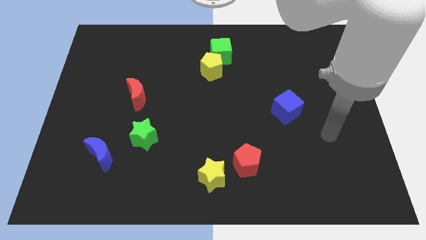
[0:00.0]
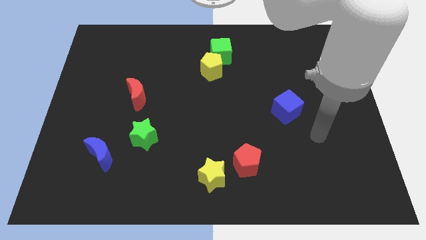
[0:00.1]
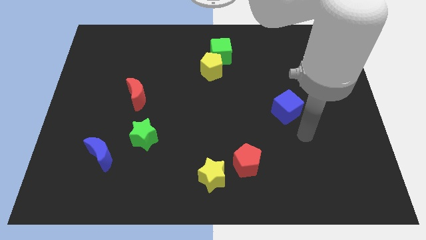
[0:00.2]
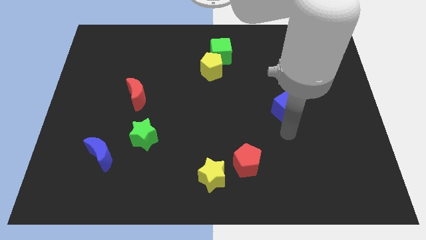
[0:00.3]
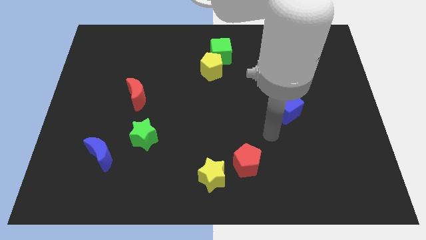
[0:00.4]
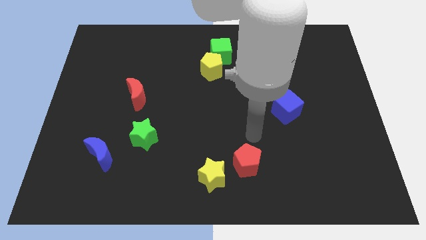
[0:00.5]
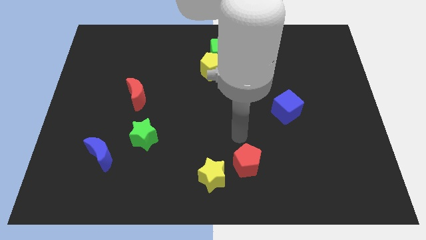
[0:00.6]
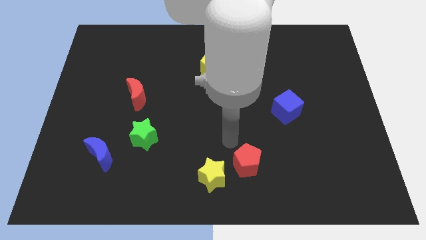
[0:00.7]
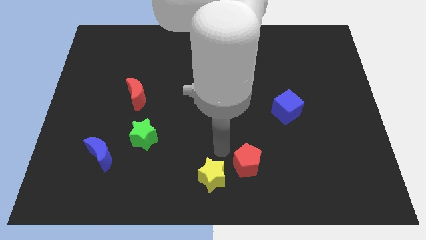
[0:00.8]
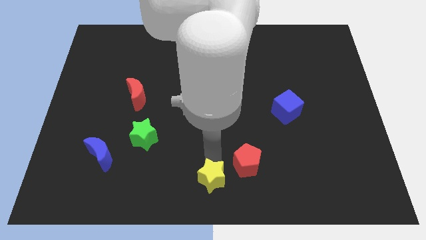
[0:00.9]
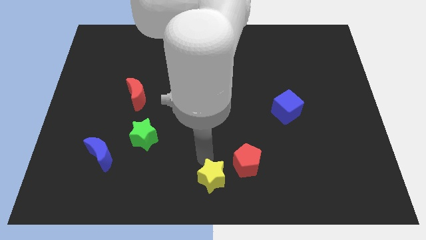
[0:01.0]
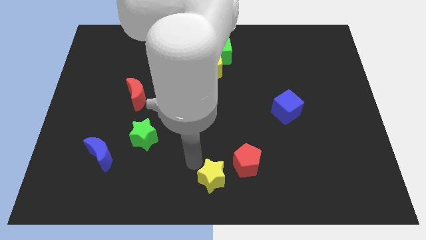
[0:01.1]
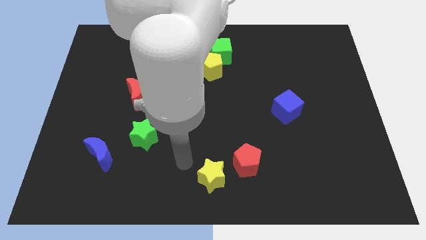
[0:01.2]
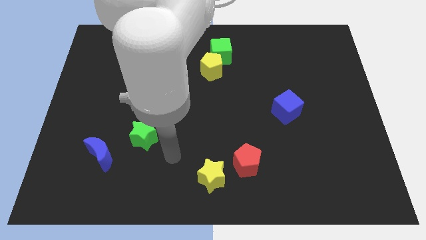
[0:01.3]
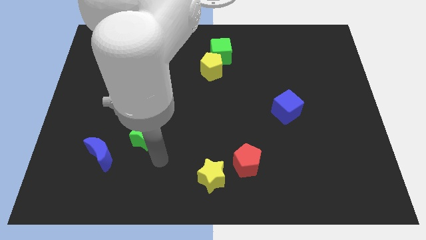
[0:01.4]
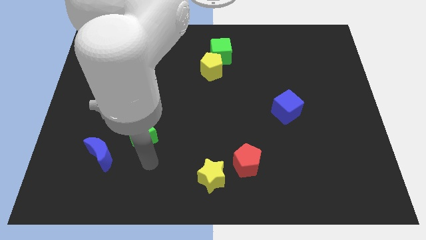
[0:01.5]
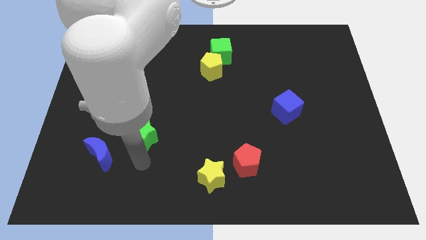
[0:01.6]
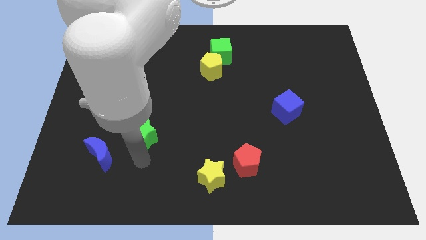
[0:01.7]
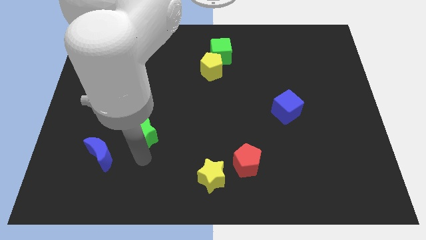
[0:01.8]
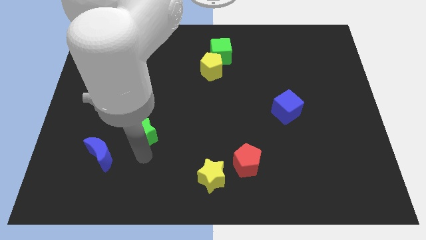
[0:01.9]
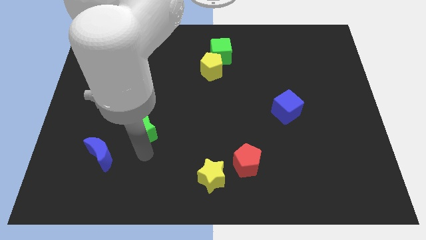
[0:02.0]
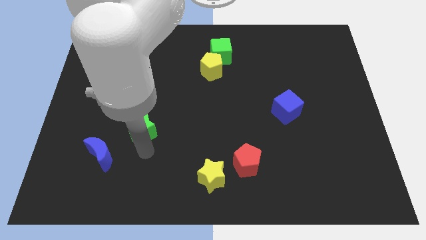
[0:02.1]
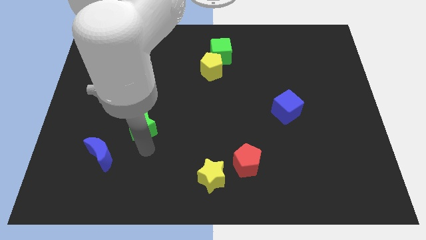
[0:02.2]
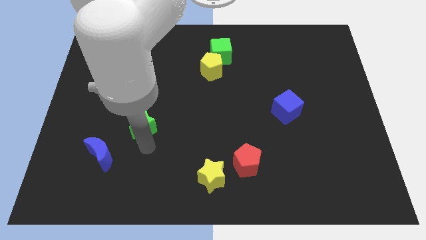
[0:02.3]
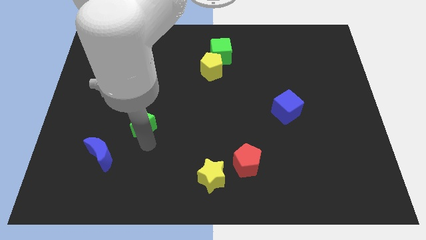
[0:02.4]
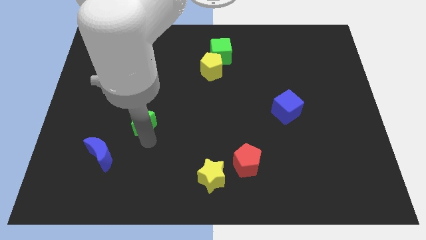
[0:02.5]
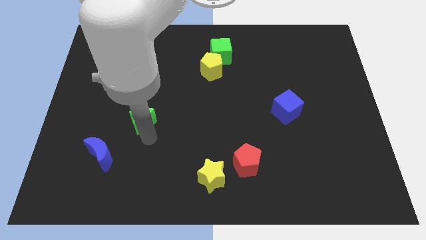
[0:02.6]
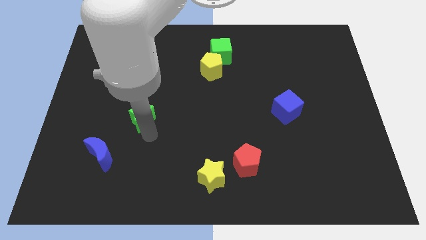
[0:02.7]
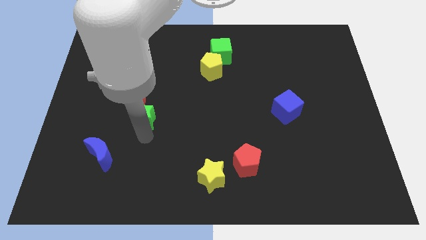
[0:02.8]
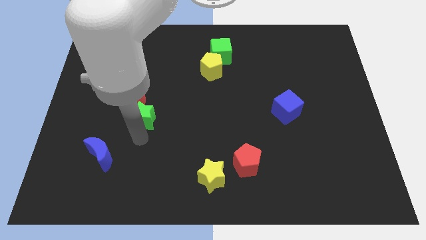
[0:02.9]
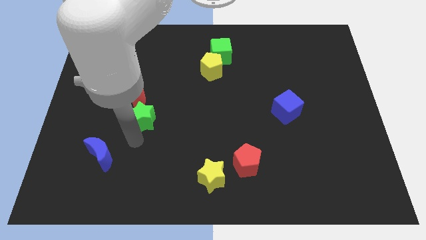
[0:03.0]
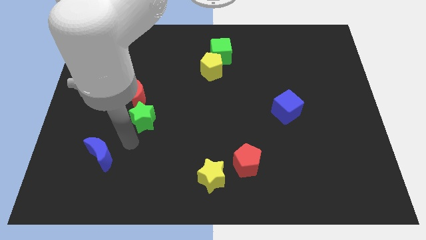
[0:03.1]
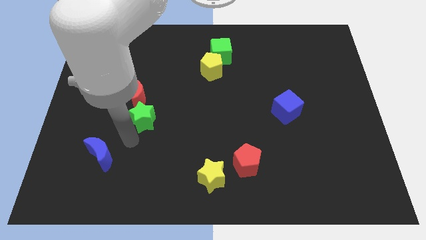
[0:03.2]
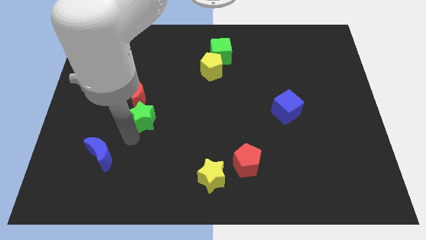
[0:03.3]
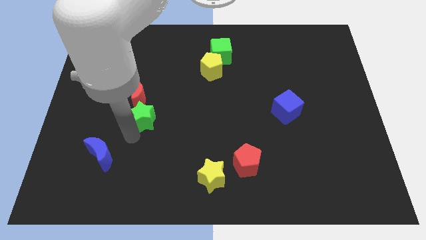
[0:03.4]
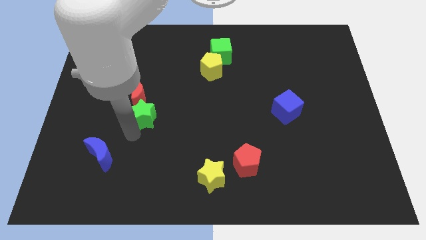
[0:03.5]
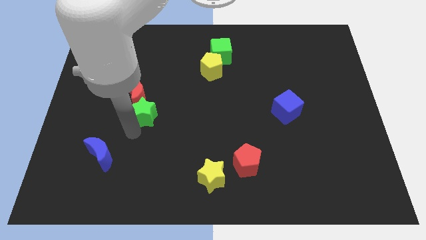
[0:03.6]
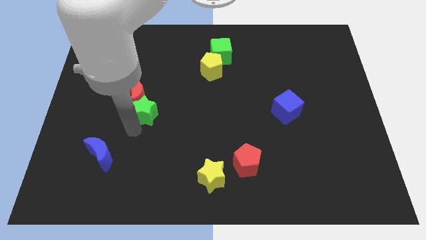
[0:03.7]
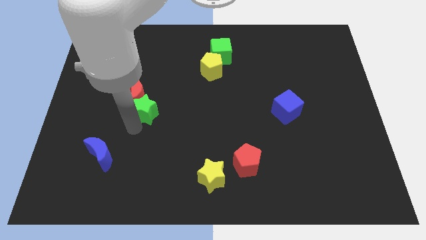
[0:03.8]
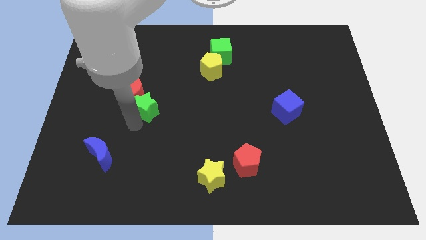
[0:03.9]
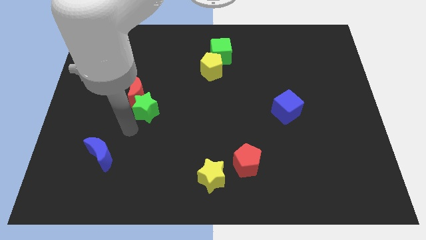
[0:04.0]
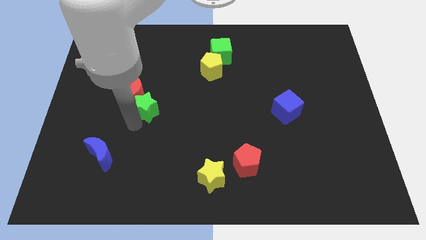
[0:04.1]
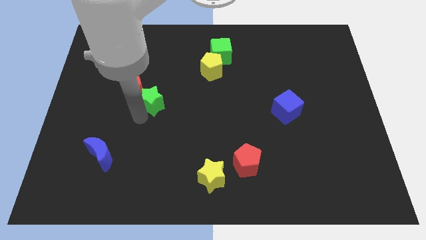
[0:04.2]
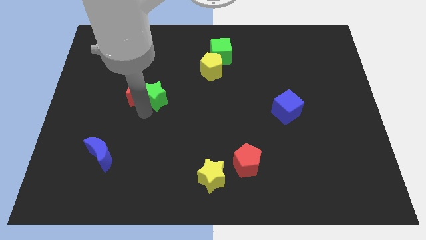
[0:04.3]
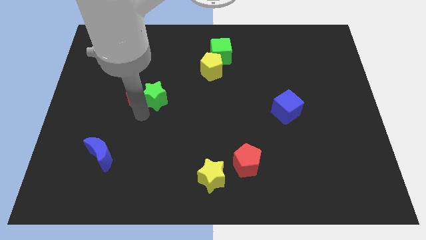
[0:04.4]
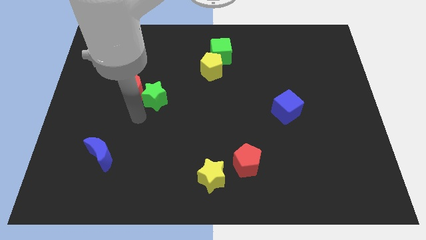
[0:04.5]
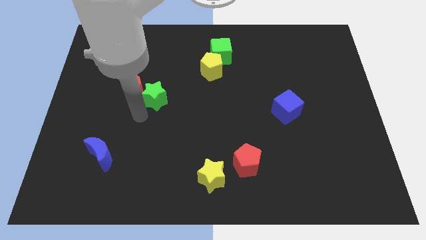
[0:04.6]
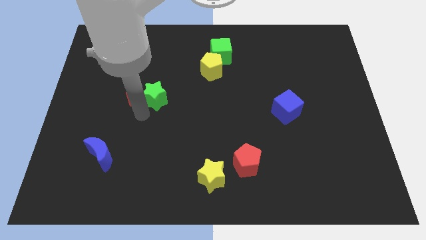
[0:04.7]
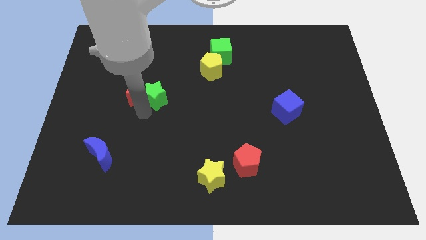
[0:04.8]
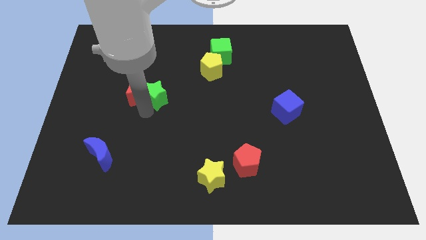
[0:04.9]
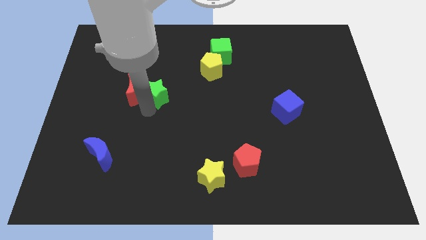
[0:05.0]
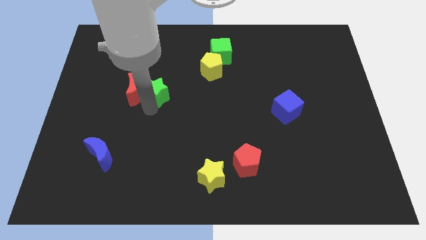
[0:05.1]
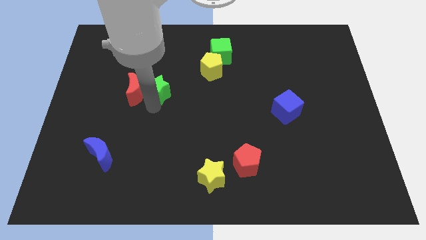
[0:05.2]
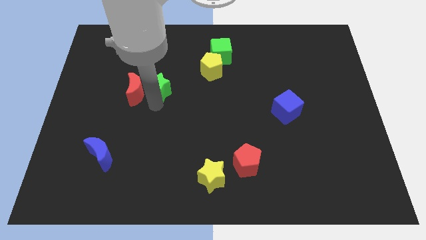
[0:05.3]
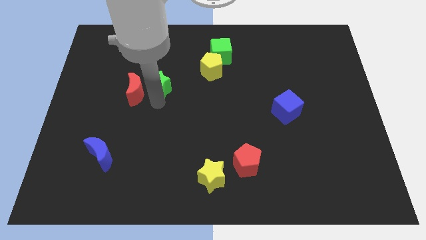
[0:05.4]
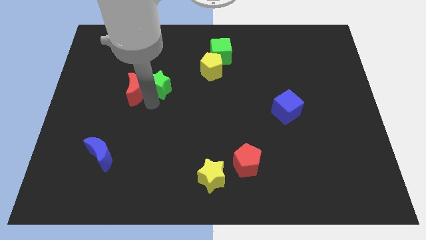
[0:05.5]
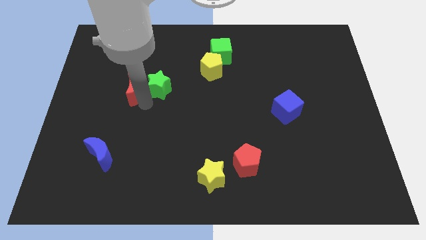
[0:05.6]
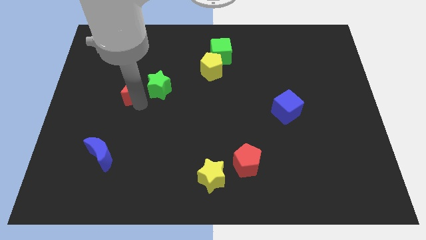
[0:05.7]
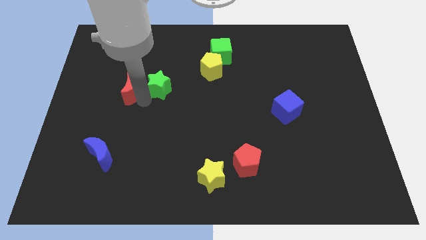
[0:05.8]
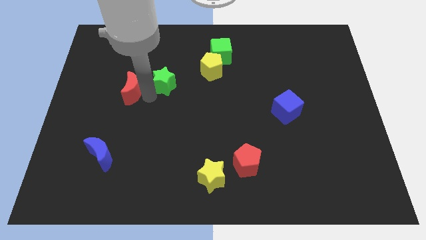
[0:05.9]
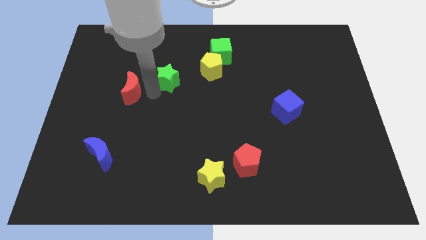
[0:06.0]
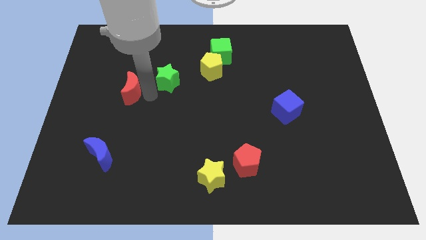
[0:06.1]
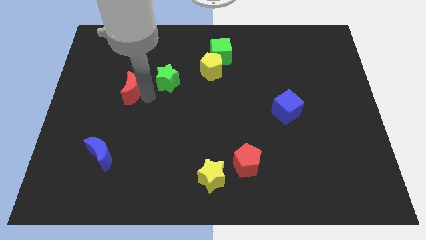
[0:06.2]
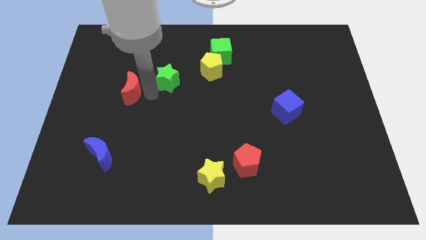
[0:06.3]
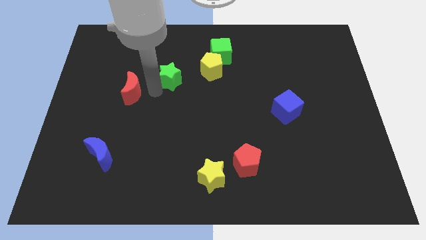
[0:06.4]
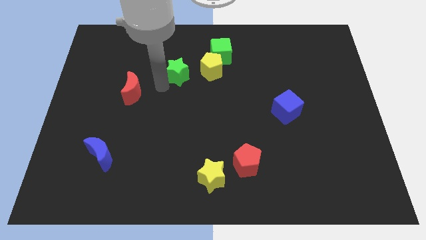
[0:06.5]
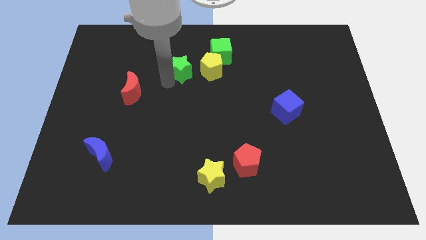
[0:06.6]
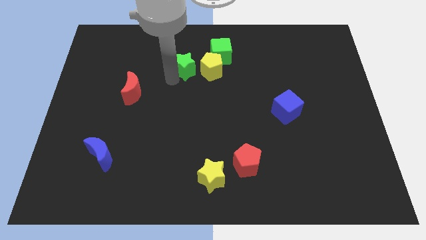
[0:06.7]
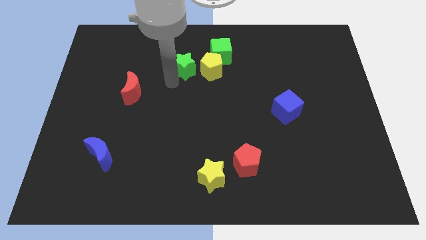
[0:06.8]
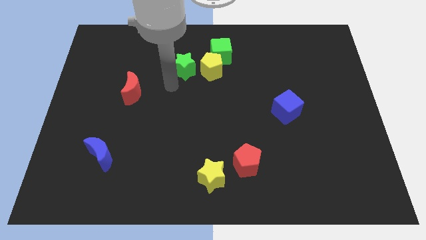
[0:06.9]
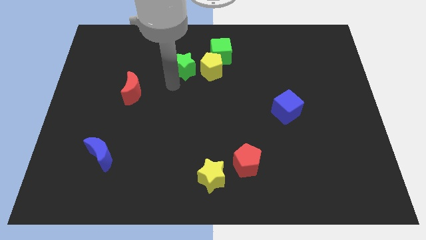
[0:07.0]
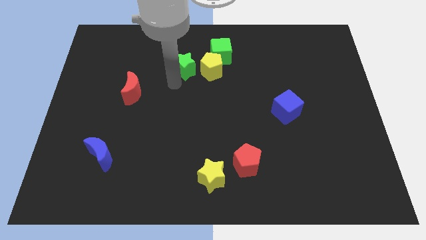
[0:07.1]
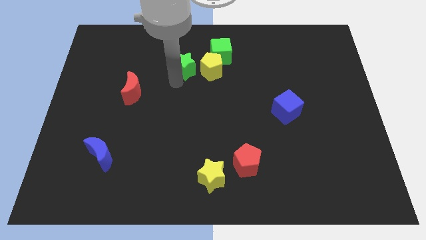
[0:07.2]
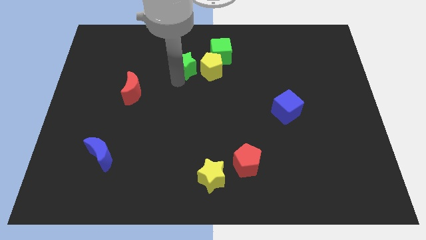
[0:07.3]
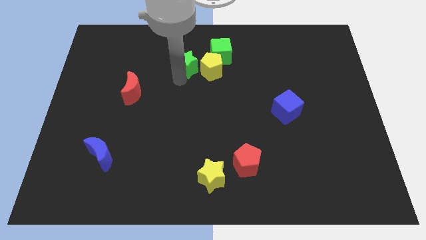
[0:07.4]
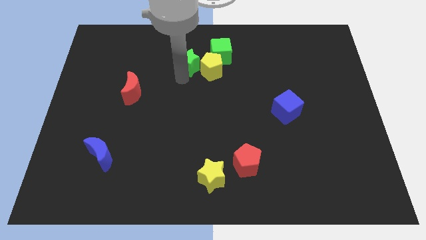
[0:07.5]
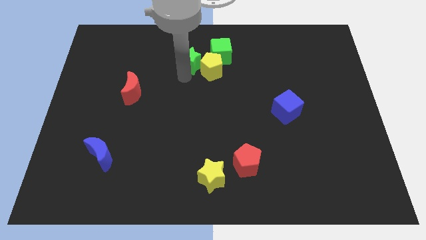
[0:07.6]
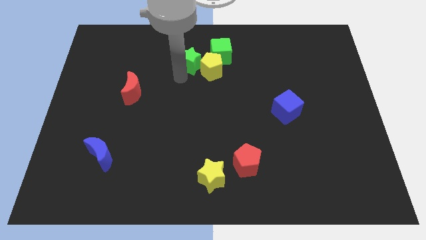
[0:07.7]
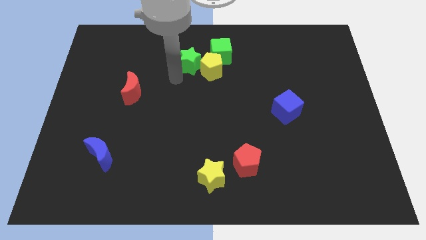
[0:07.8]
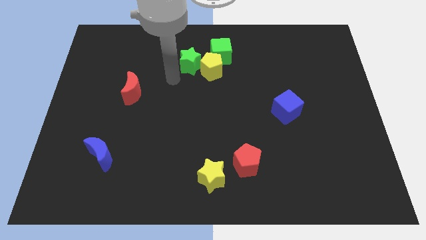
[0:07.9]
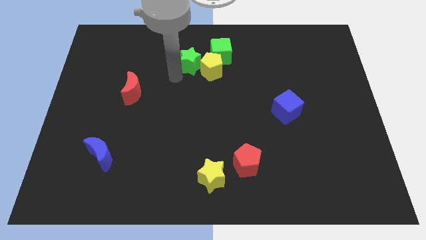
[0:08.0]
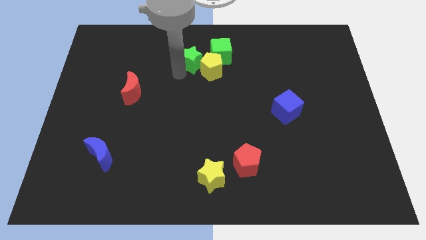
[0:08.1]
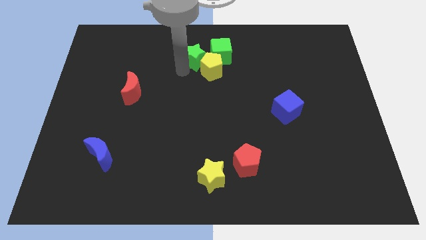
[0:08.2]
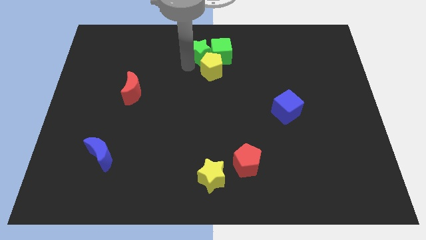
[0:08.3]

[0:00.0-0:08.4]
push the green star to the top side
